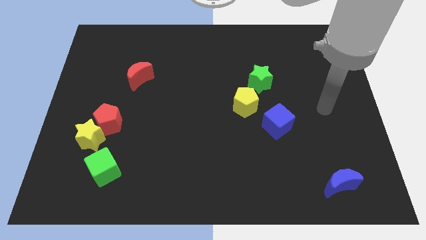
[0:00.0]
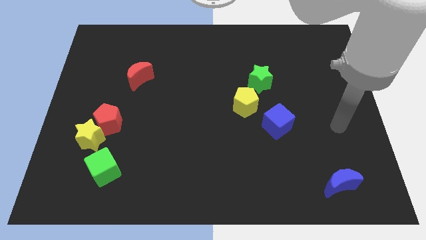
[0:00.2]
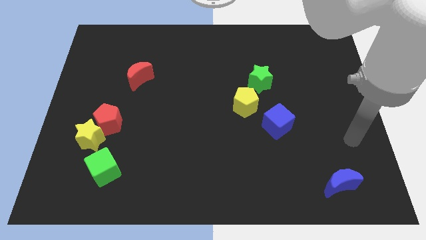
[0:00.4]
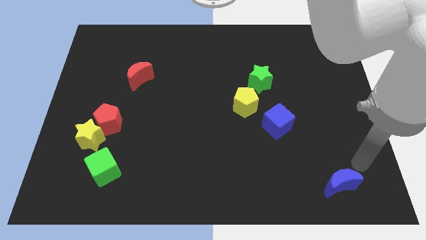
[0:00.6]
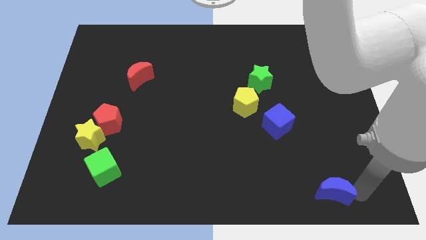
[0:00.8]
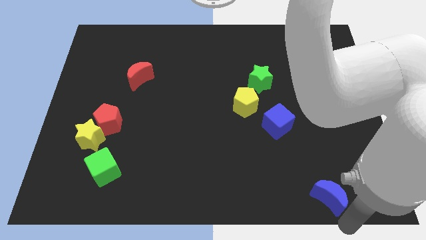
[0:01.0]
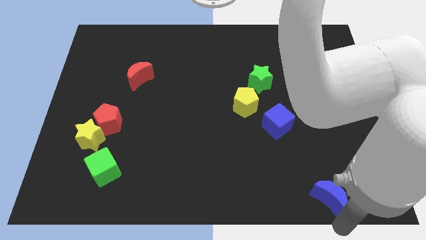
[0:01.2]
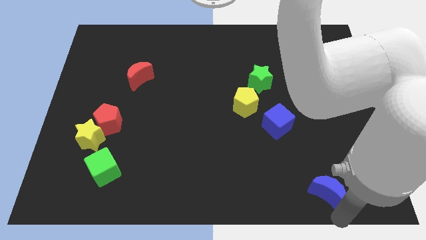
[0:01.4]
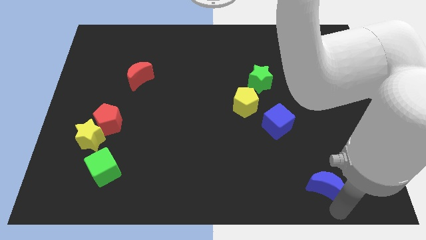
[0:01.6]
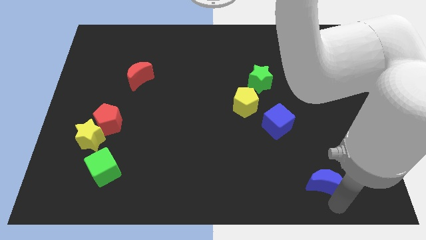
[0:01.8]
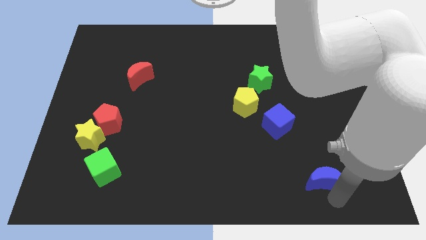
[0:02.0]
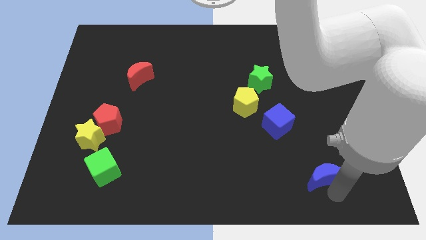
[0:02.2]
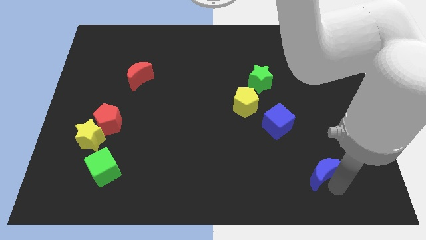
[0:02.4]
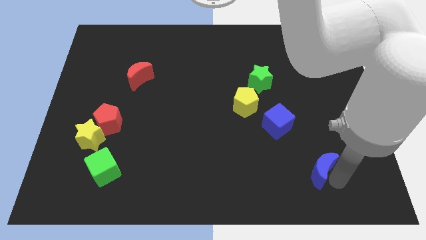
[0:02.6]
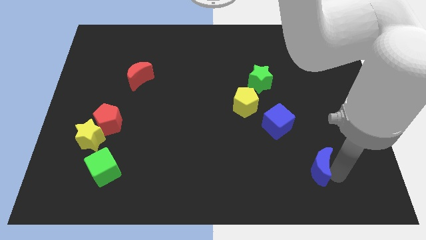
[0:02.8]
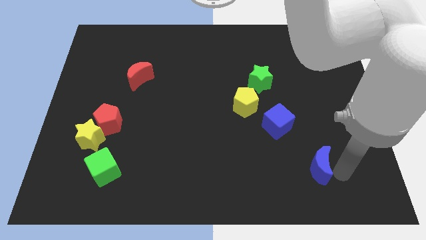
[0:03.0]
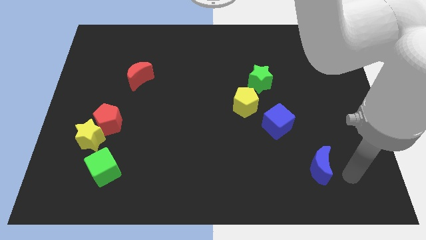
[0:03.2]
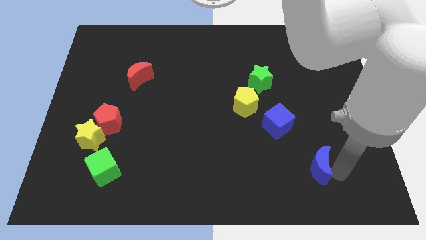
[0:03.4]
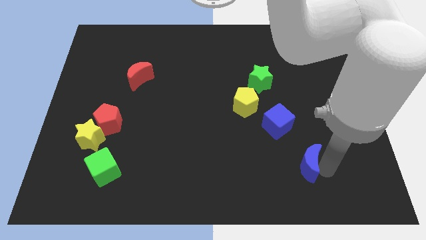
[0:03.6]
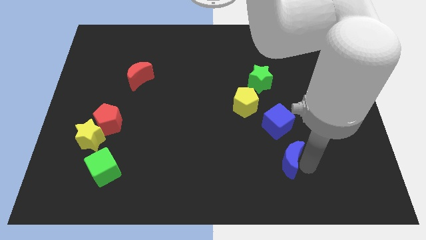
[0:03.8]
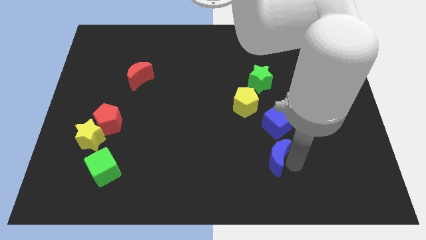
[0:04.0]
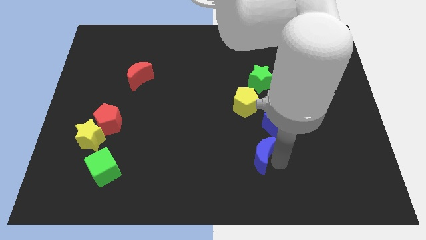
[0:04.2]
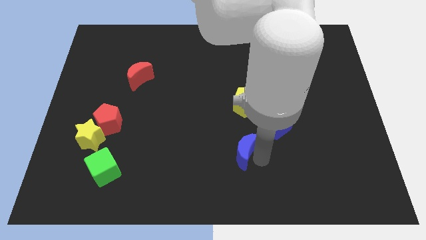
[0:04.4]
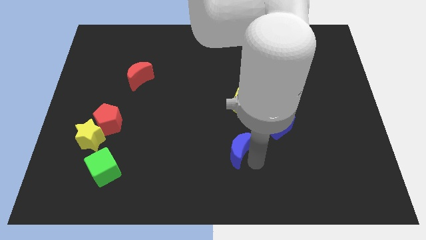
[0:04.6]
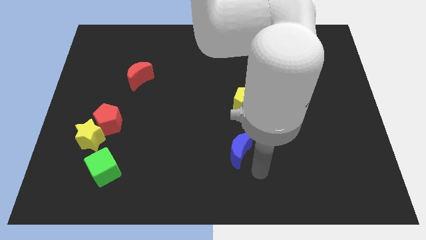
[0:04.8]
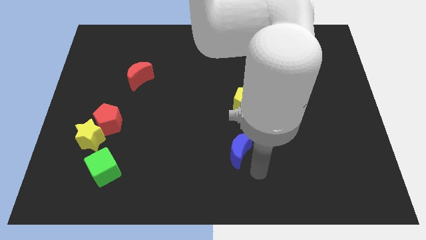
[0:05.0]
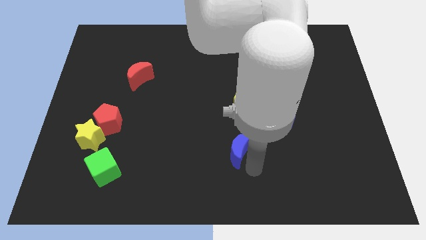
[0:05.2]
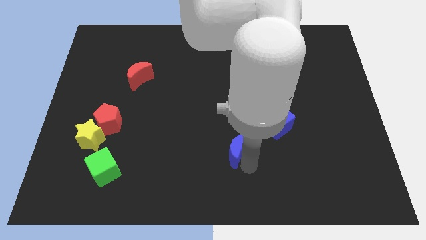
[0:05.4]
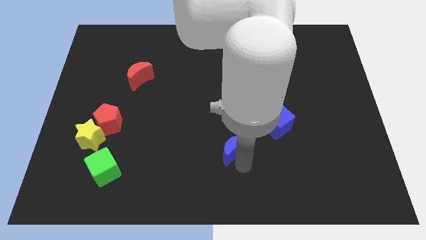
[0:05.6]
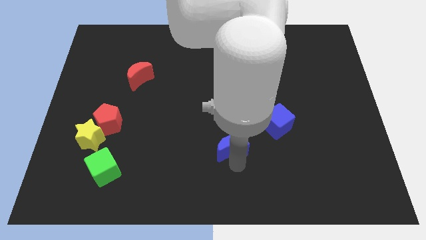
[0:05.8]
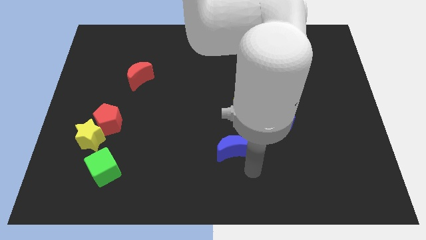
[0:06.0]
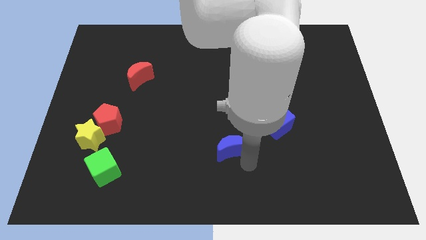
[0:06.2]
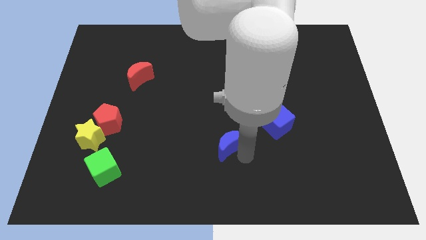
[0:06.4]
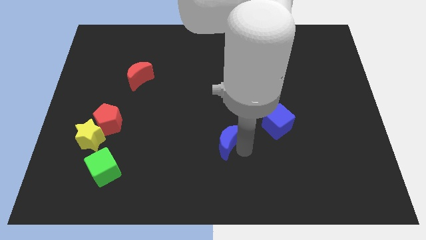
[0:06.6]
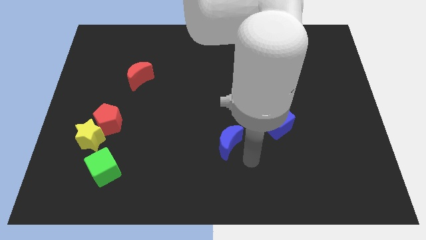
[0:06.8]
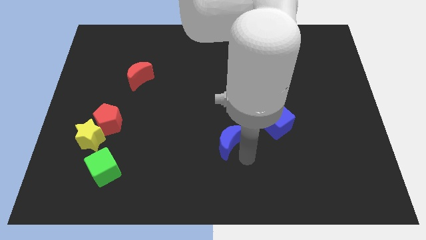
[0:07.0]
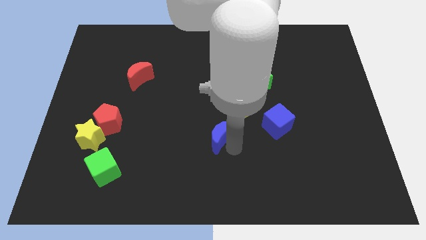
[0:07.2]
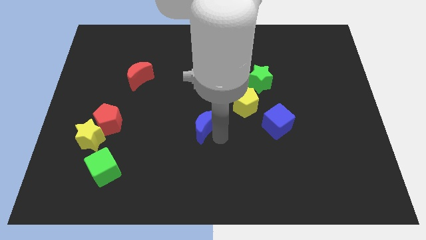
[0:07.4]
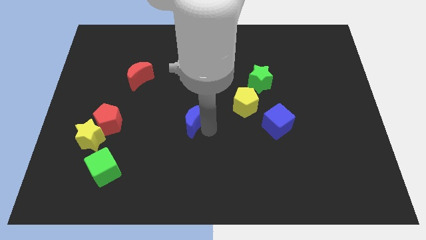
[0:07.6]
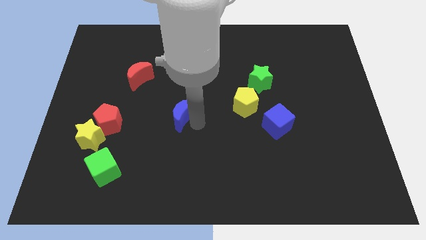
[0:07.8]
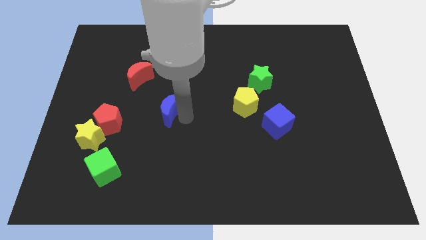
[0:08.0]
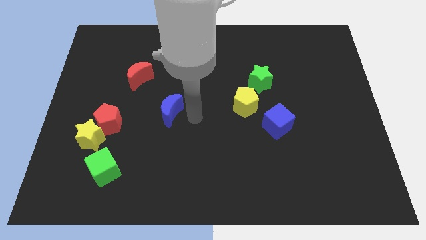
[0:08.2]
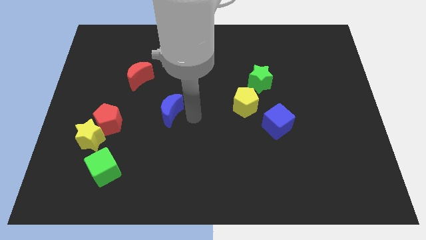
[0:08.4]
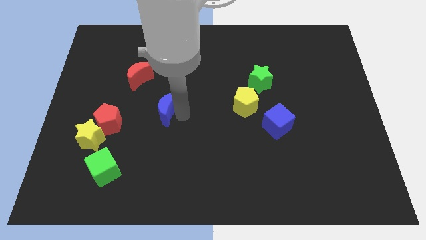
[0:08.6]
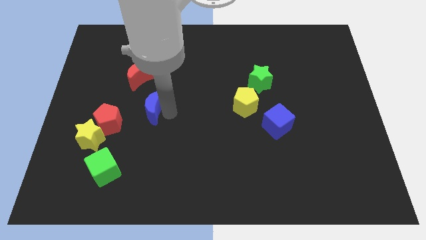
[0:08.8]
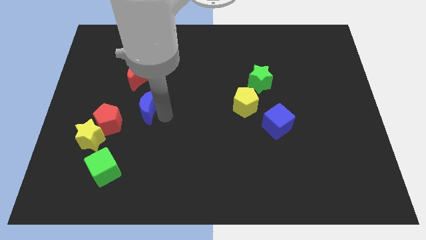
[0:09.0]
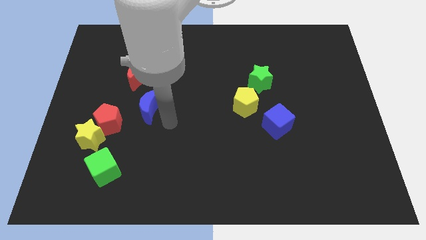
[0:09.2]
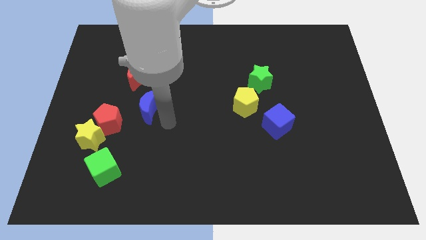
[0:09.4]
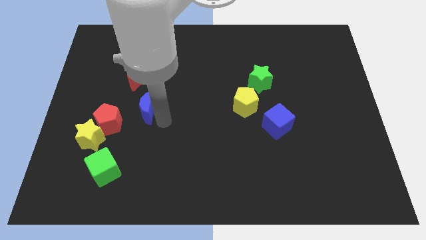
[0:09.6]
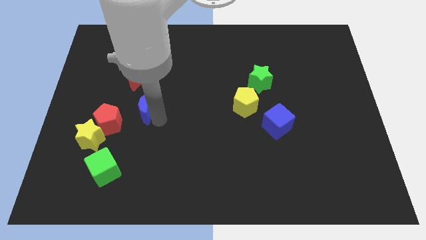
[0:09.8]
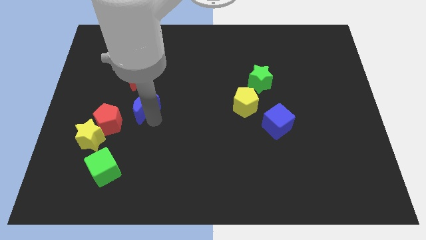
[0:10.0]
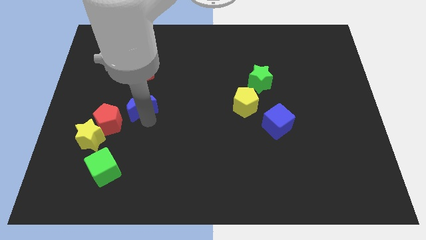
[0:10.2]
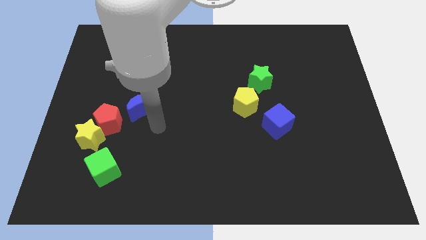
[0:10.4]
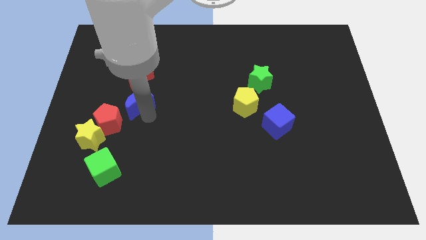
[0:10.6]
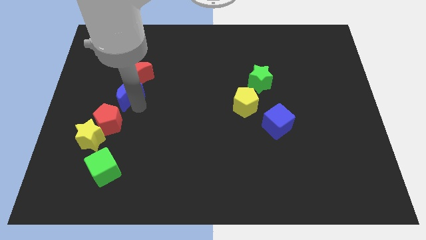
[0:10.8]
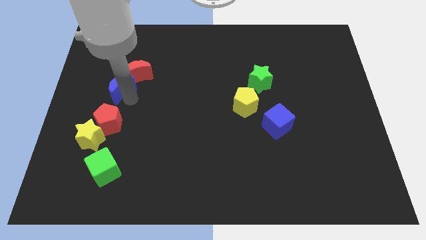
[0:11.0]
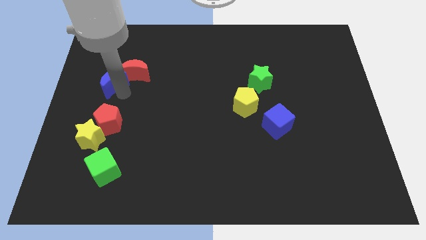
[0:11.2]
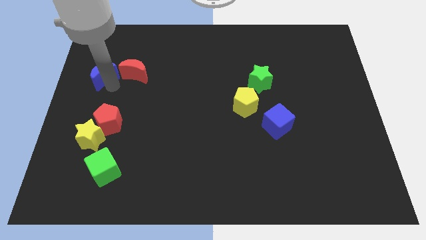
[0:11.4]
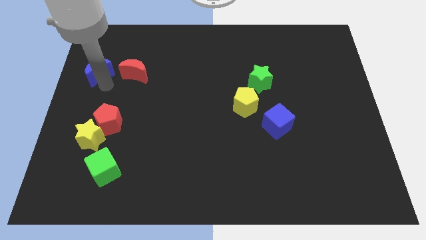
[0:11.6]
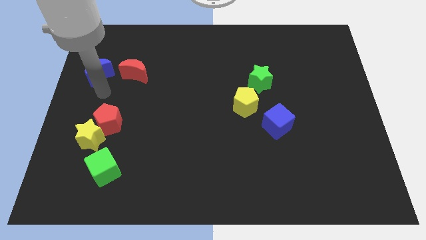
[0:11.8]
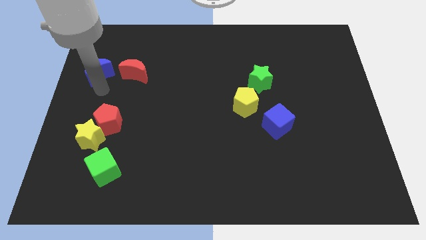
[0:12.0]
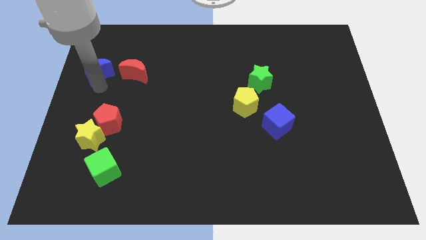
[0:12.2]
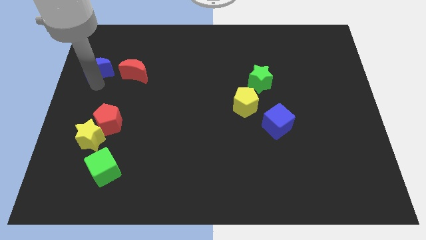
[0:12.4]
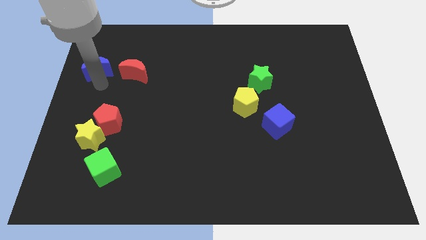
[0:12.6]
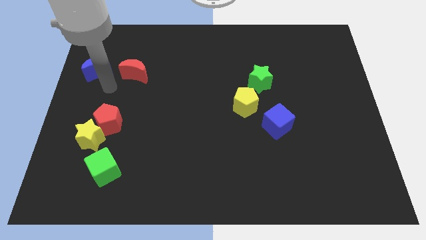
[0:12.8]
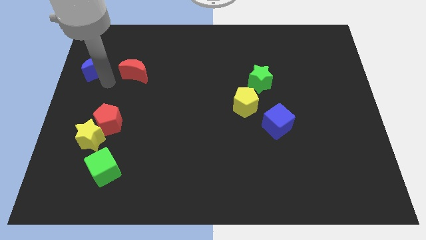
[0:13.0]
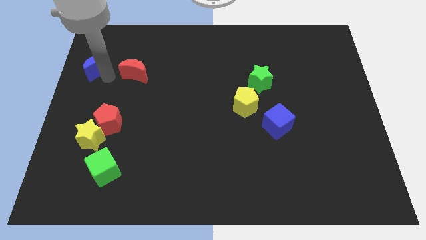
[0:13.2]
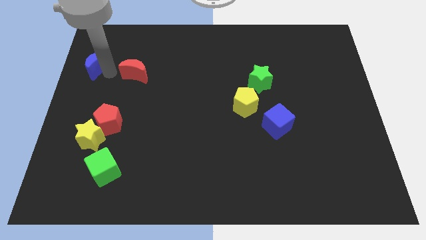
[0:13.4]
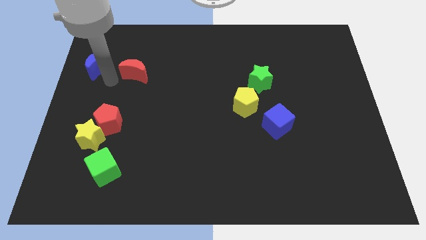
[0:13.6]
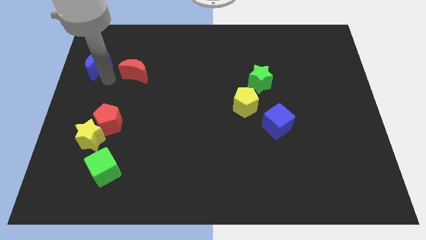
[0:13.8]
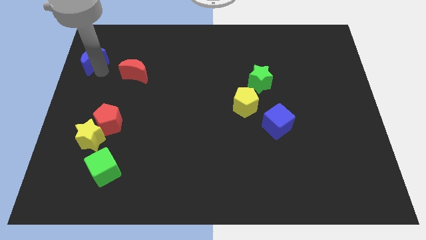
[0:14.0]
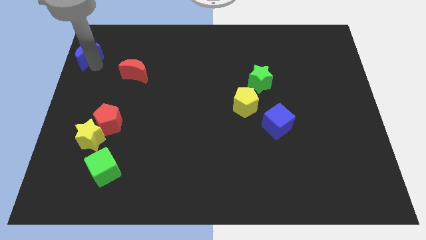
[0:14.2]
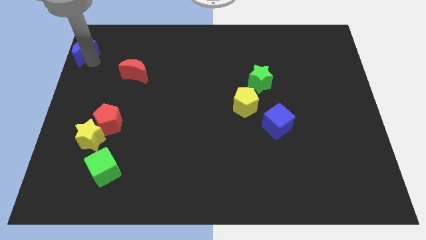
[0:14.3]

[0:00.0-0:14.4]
put the blue moon to the top left
